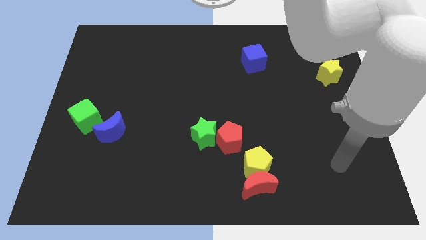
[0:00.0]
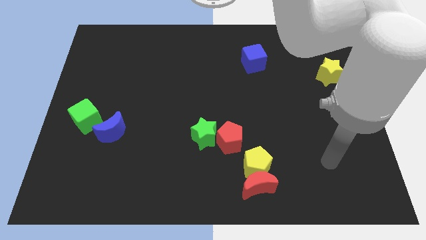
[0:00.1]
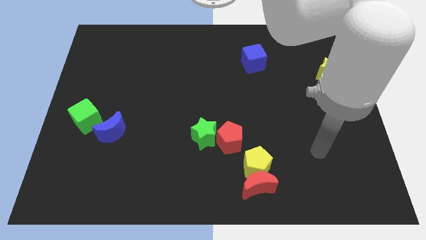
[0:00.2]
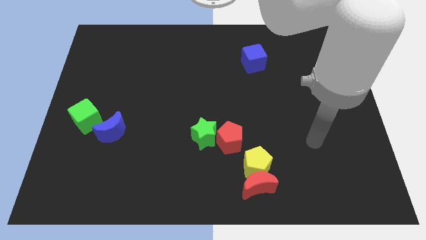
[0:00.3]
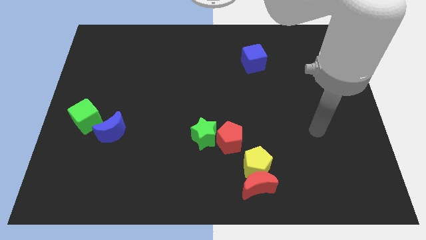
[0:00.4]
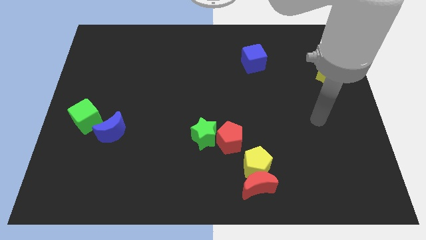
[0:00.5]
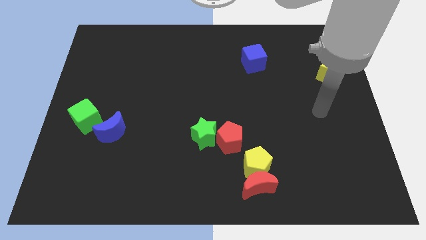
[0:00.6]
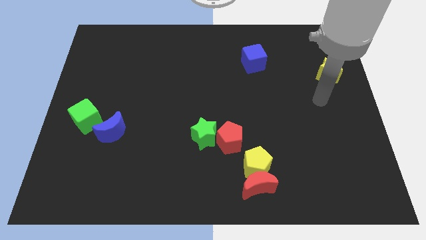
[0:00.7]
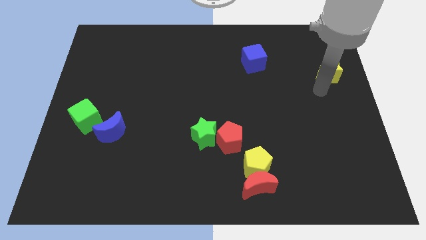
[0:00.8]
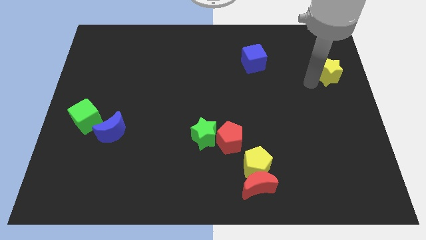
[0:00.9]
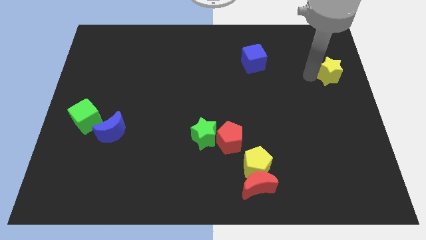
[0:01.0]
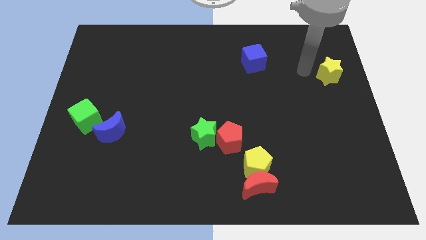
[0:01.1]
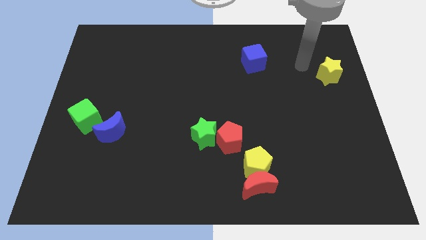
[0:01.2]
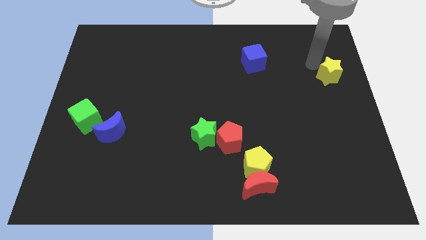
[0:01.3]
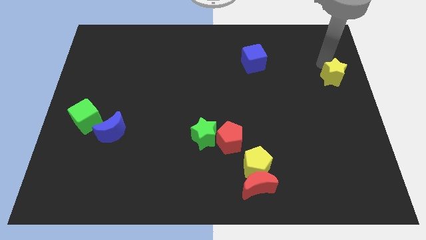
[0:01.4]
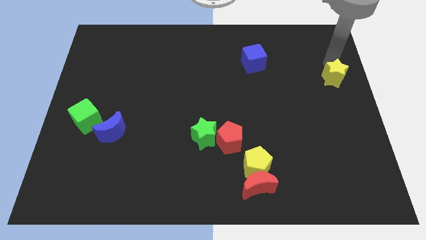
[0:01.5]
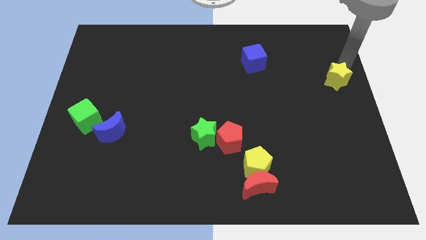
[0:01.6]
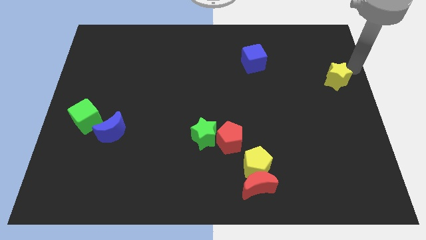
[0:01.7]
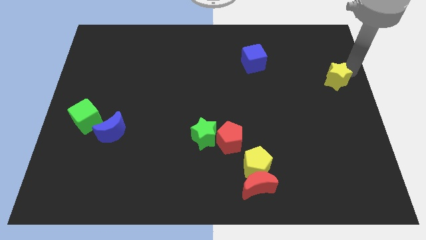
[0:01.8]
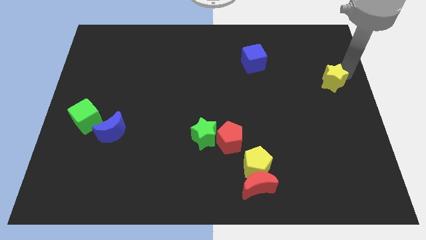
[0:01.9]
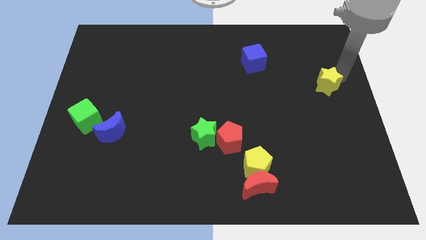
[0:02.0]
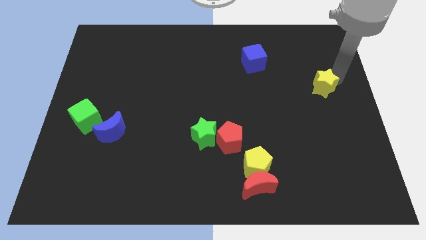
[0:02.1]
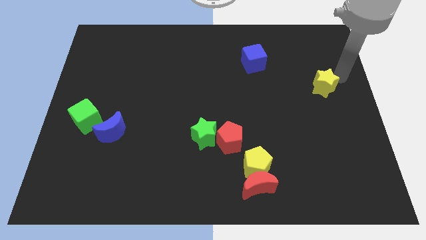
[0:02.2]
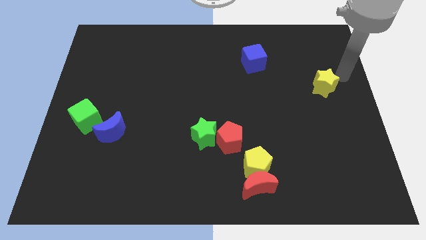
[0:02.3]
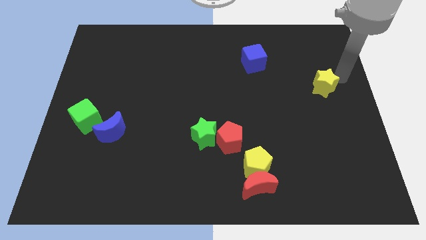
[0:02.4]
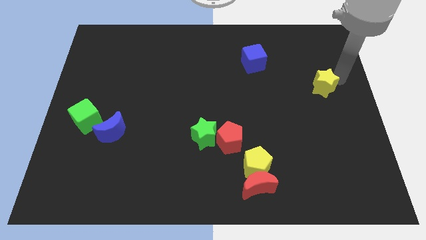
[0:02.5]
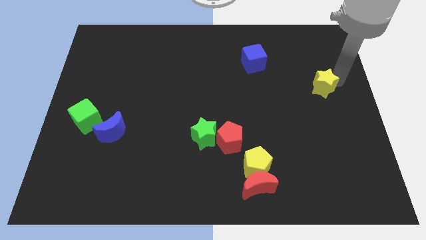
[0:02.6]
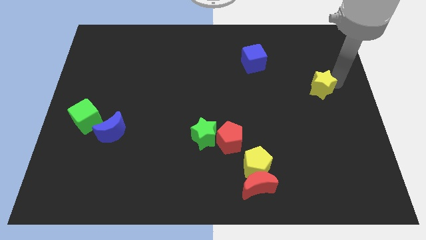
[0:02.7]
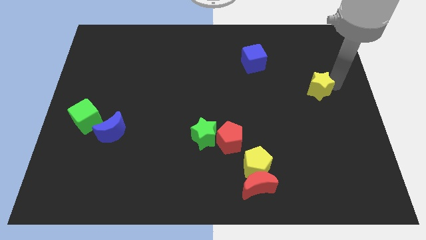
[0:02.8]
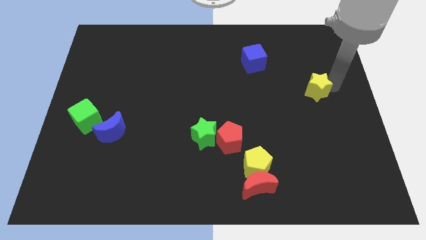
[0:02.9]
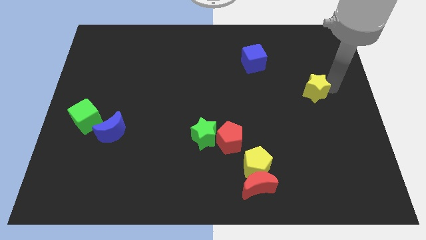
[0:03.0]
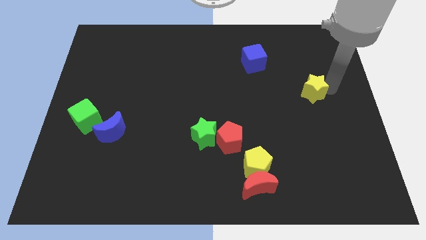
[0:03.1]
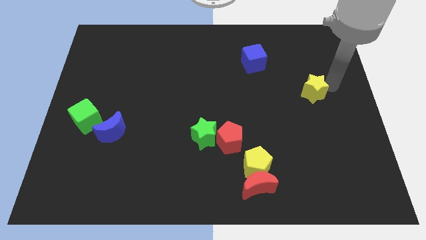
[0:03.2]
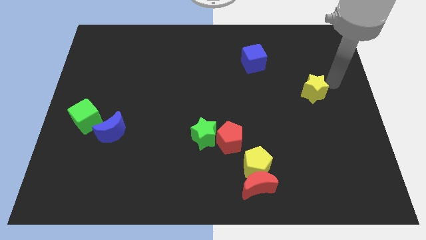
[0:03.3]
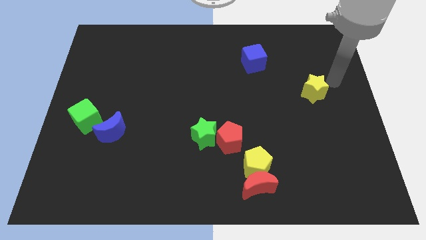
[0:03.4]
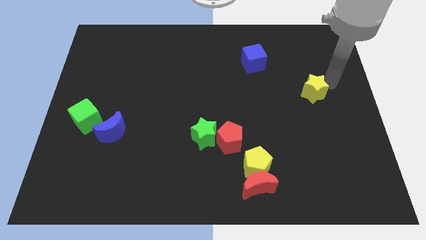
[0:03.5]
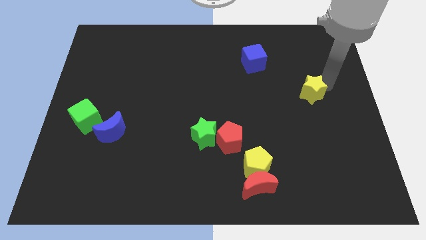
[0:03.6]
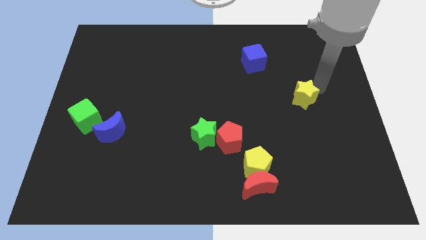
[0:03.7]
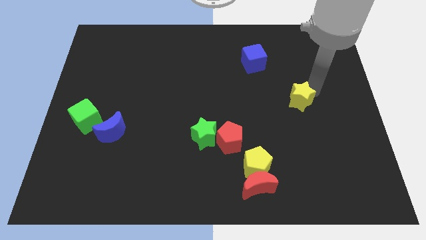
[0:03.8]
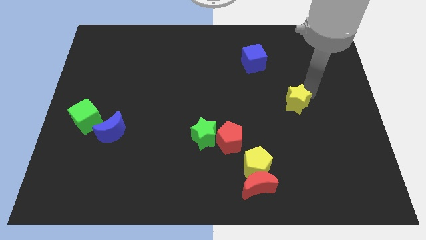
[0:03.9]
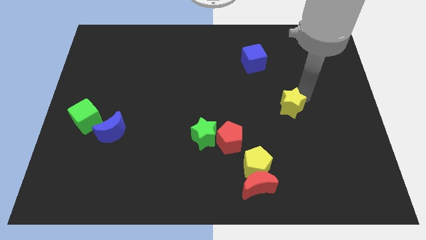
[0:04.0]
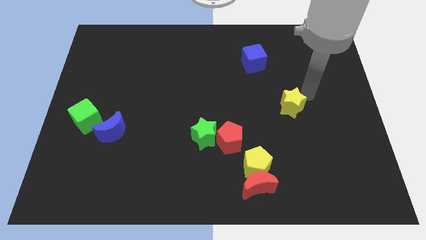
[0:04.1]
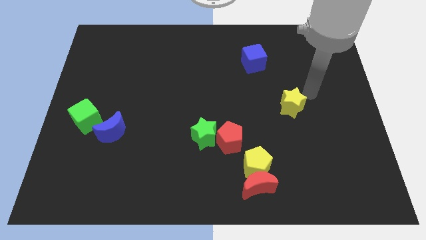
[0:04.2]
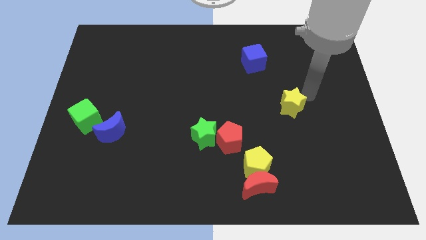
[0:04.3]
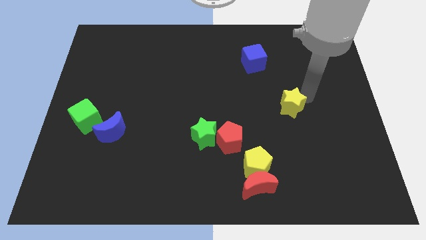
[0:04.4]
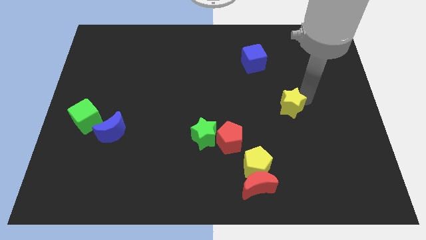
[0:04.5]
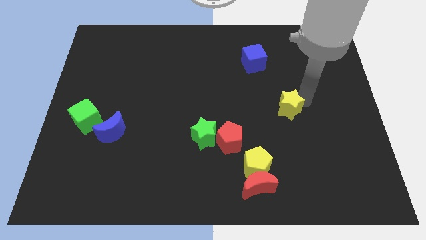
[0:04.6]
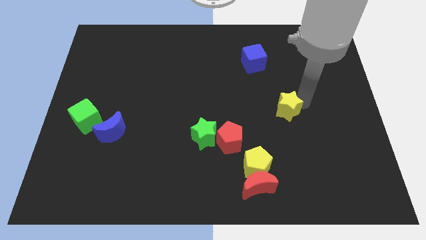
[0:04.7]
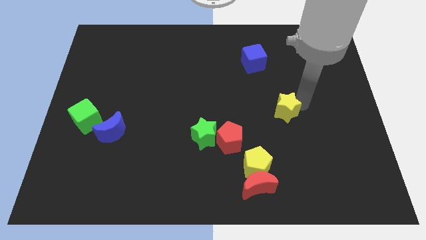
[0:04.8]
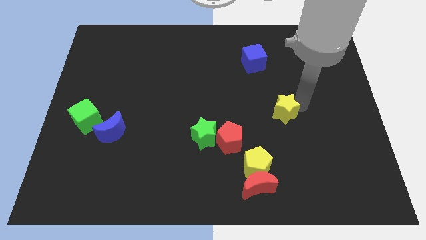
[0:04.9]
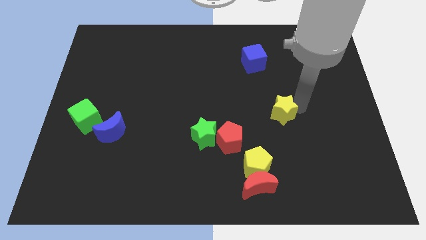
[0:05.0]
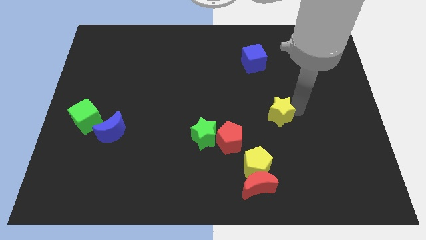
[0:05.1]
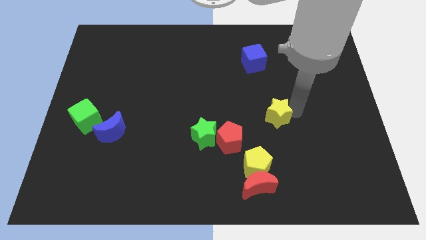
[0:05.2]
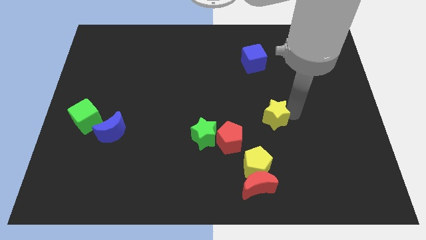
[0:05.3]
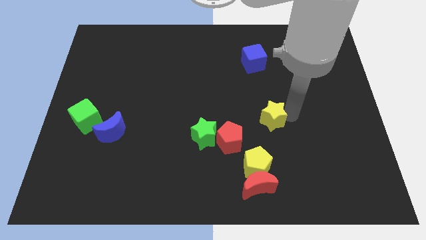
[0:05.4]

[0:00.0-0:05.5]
slide the yellow star above the yellow pentagon

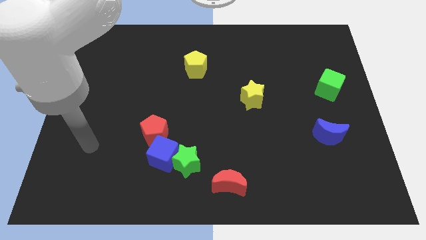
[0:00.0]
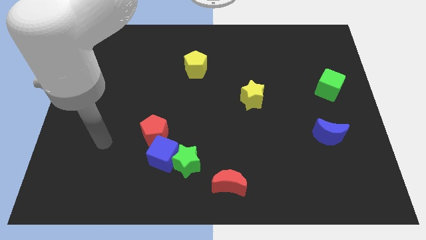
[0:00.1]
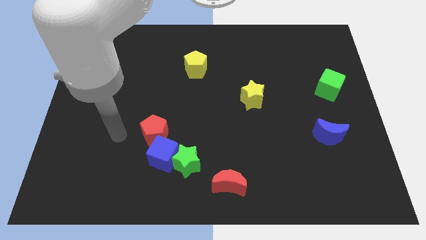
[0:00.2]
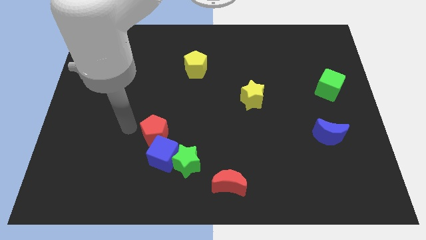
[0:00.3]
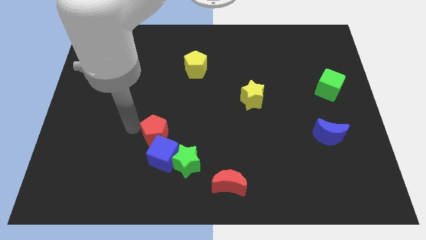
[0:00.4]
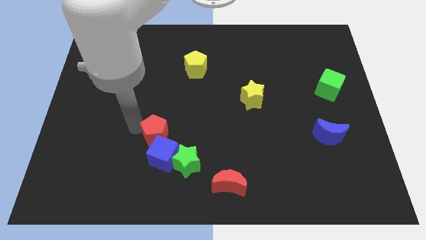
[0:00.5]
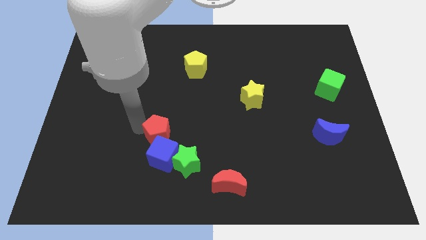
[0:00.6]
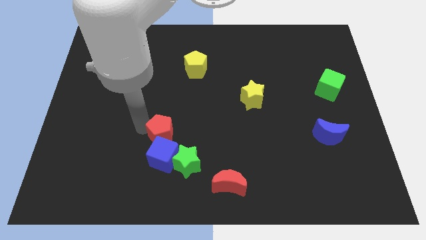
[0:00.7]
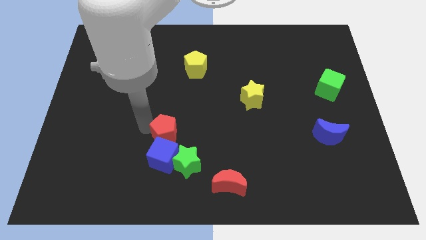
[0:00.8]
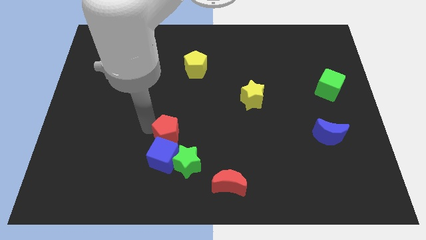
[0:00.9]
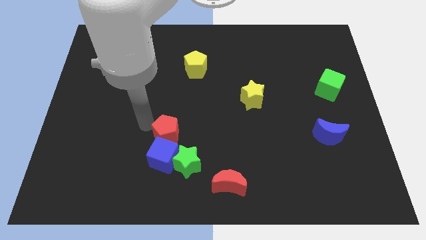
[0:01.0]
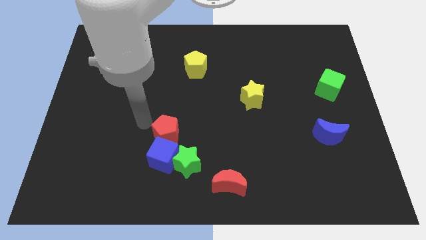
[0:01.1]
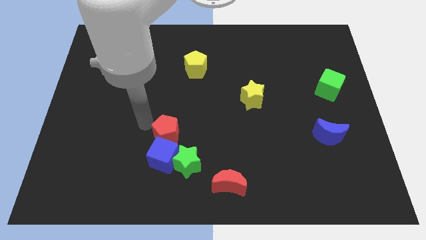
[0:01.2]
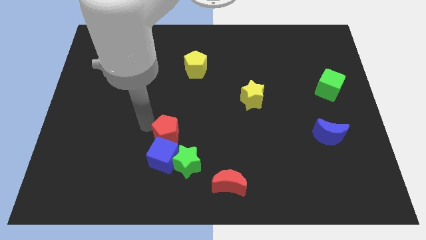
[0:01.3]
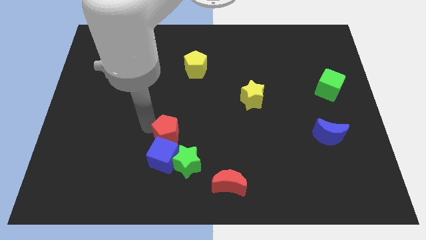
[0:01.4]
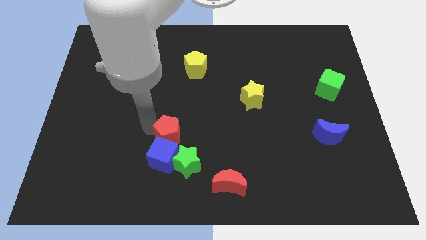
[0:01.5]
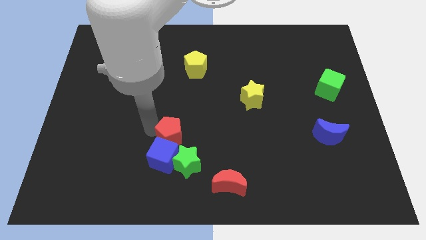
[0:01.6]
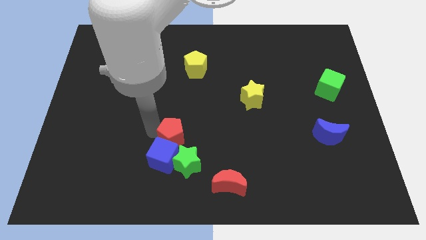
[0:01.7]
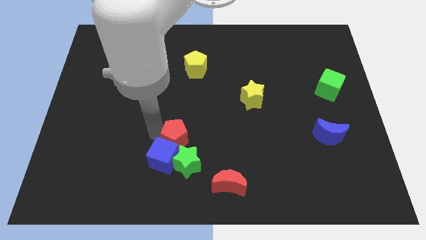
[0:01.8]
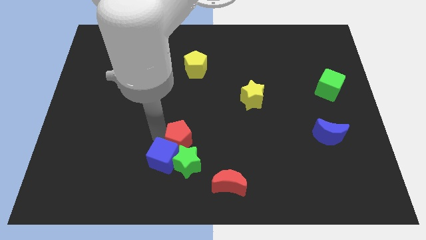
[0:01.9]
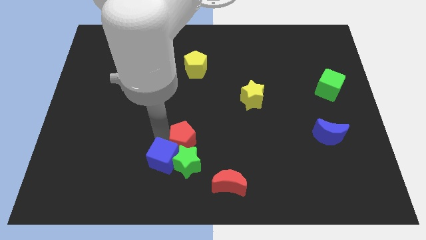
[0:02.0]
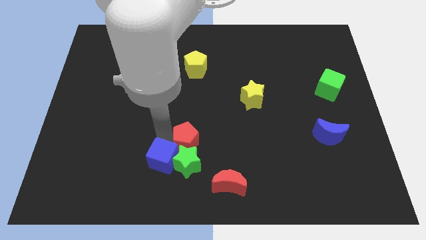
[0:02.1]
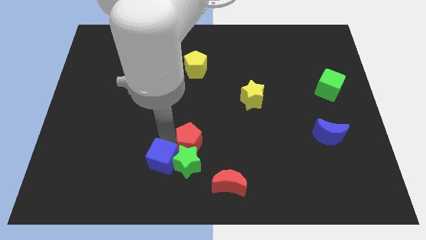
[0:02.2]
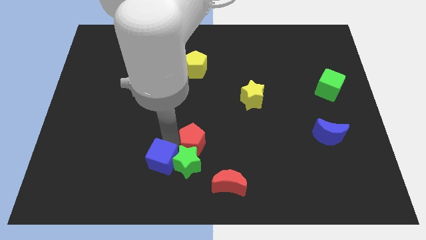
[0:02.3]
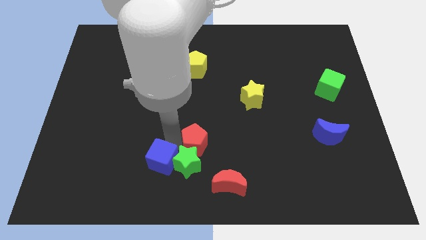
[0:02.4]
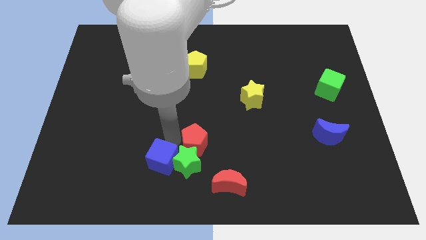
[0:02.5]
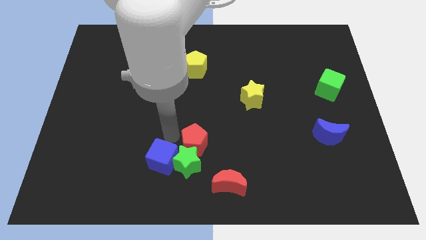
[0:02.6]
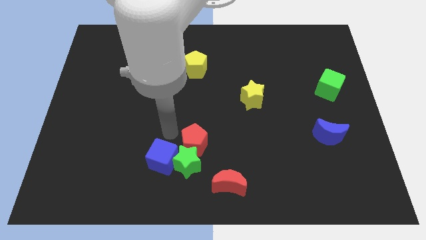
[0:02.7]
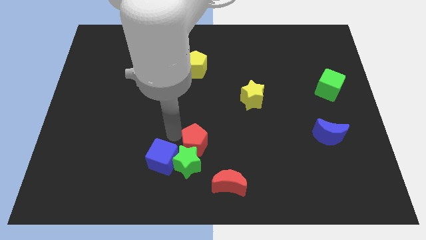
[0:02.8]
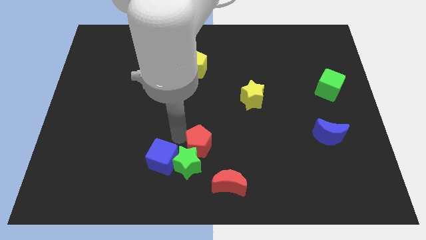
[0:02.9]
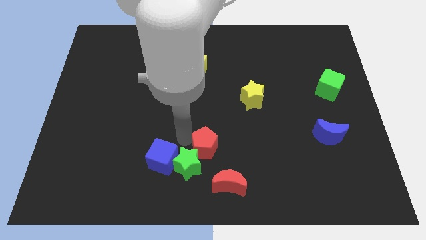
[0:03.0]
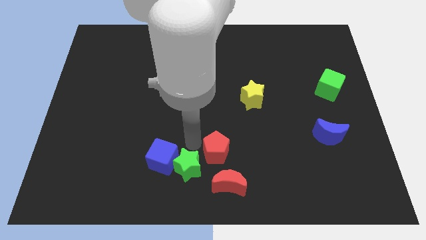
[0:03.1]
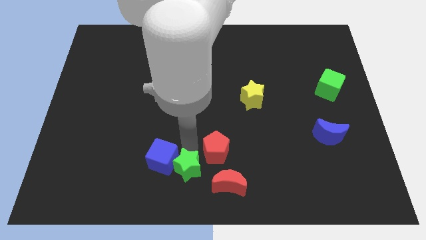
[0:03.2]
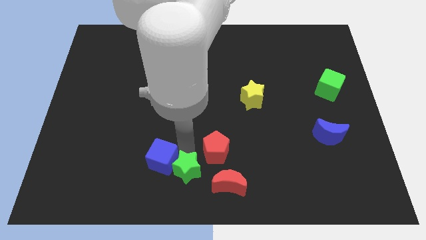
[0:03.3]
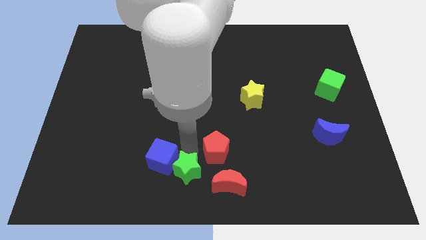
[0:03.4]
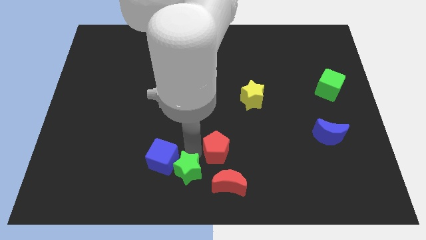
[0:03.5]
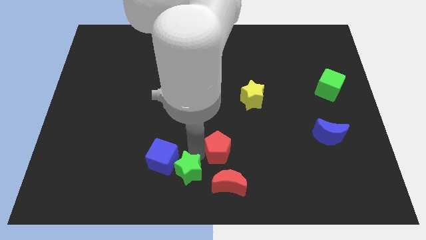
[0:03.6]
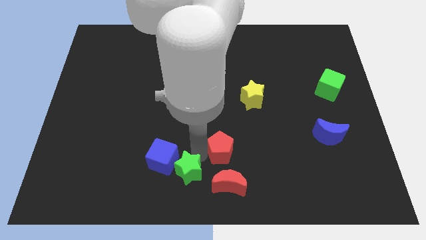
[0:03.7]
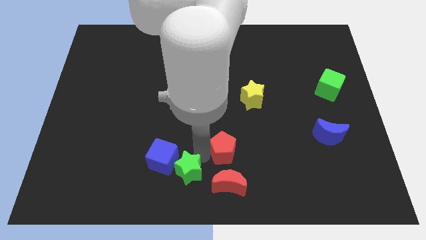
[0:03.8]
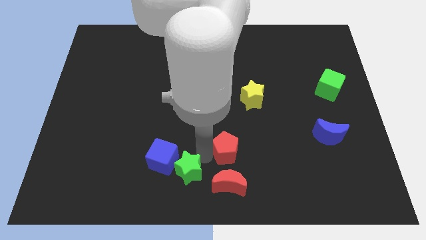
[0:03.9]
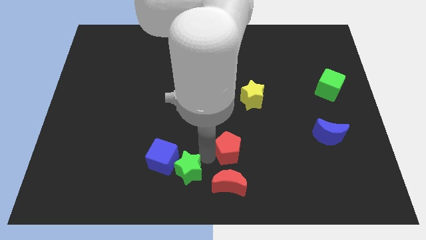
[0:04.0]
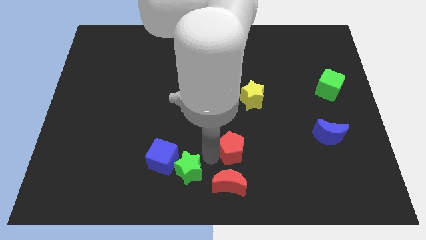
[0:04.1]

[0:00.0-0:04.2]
slide the red pentagon to the top right side of the red moon
